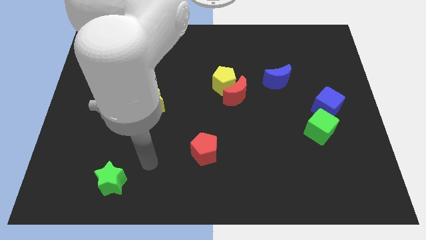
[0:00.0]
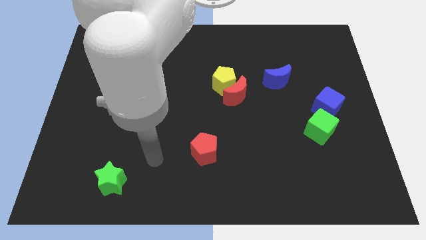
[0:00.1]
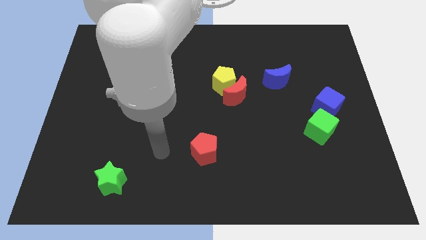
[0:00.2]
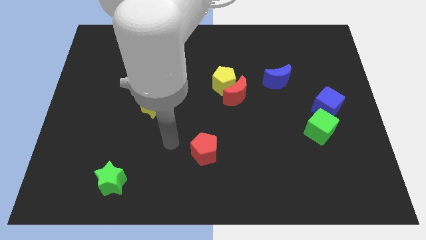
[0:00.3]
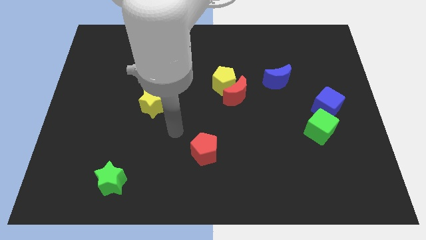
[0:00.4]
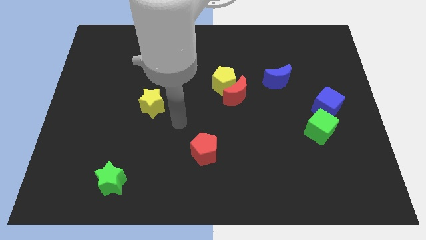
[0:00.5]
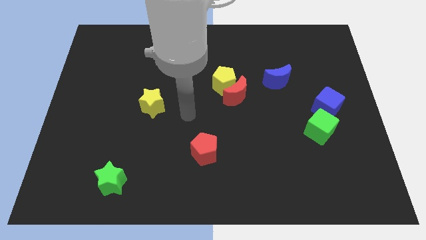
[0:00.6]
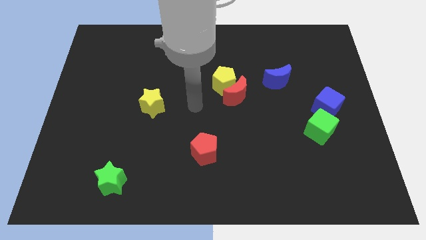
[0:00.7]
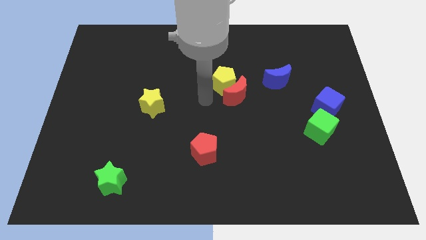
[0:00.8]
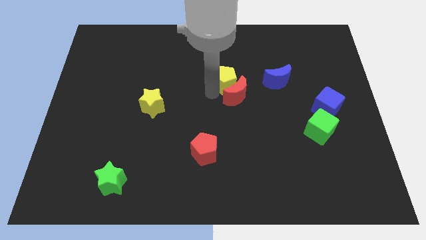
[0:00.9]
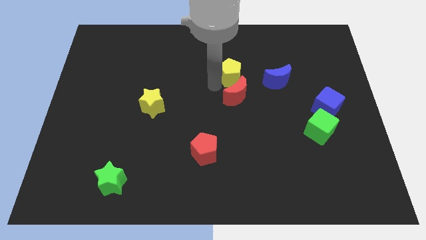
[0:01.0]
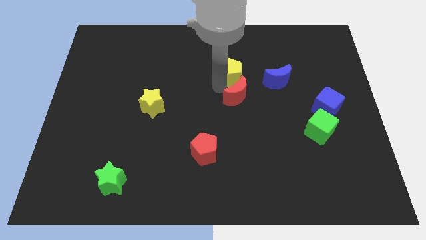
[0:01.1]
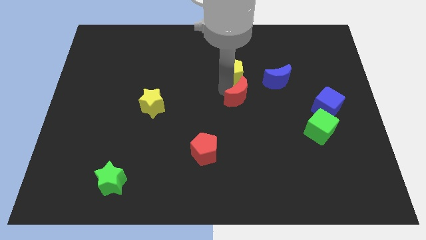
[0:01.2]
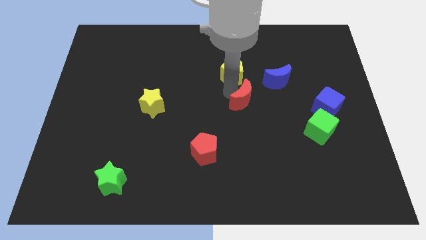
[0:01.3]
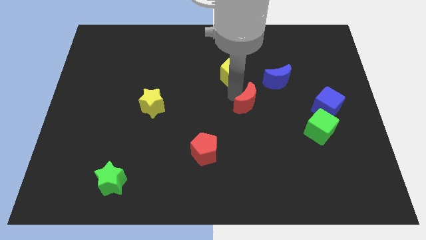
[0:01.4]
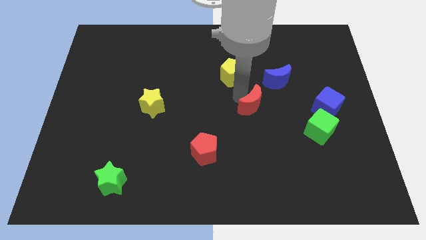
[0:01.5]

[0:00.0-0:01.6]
pull the red moon apart from the yellow pentagon

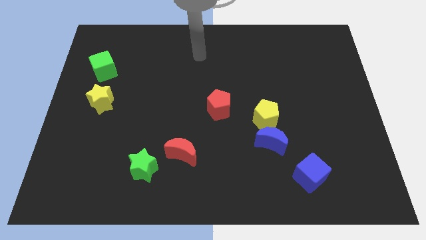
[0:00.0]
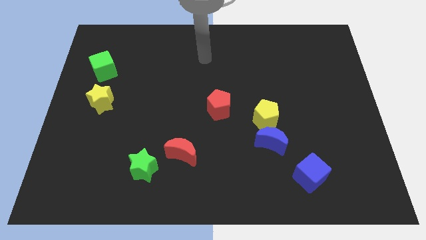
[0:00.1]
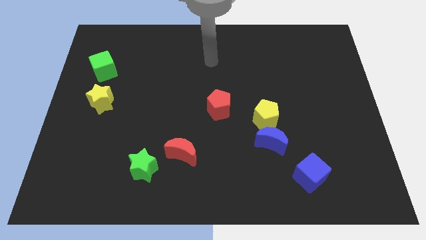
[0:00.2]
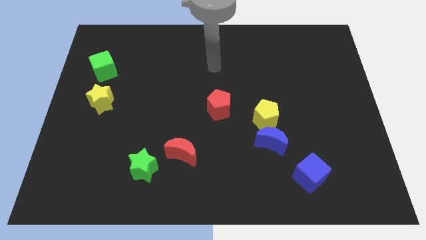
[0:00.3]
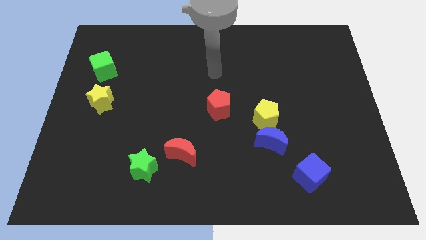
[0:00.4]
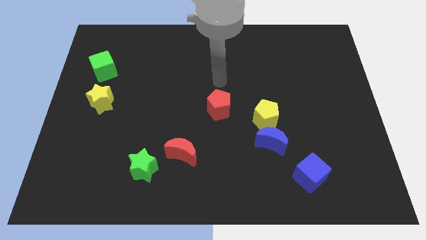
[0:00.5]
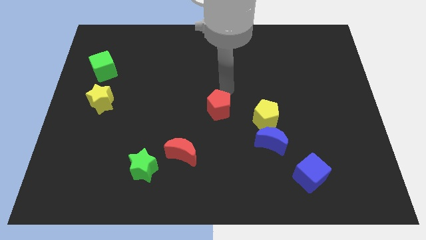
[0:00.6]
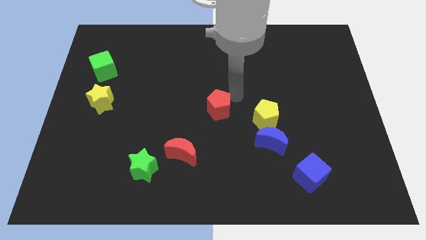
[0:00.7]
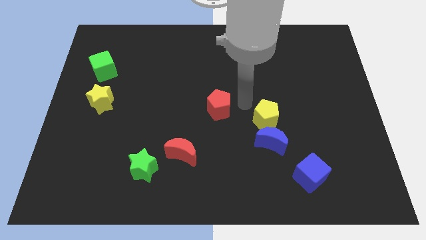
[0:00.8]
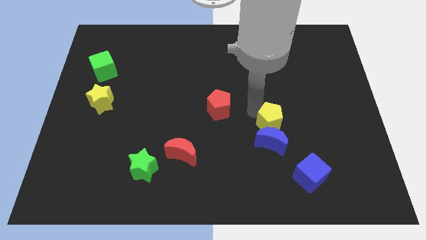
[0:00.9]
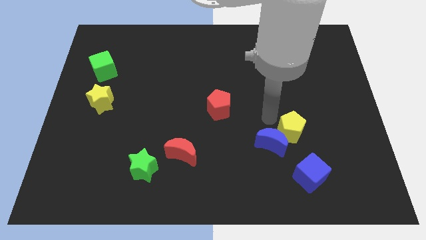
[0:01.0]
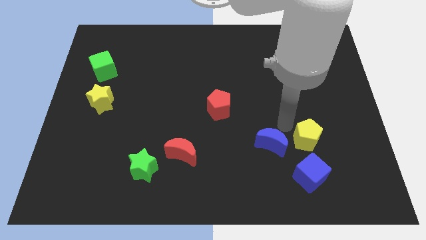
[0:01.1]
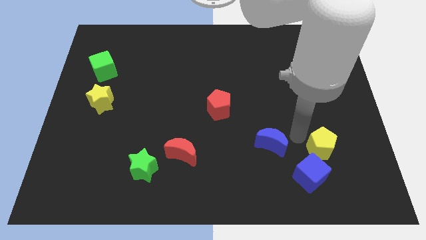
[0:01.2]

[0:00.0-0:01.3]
separate the blue moon from the yellow pentagon

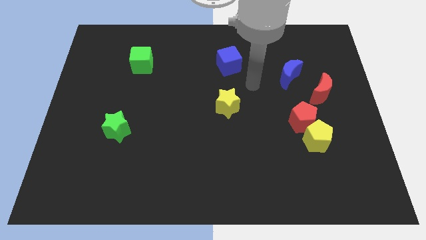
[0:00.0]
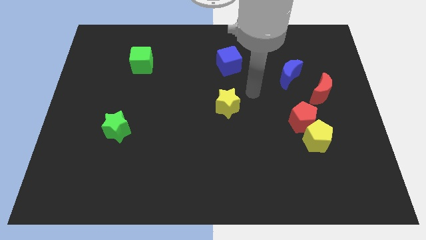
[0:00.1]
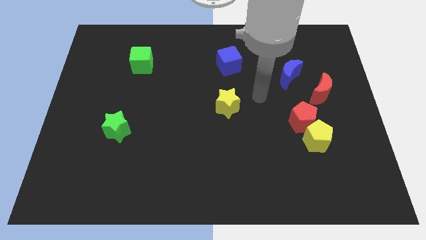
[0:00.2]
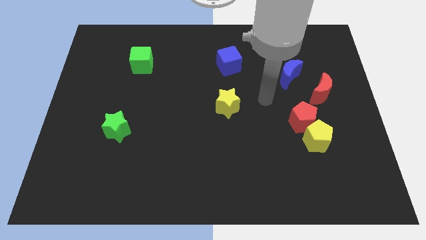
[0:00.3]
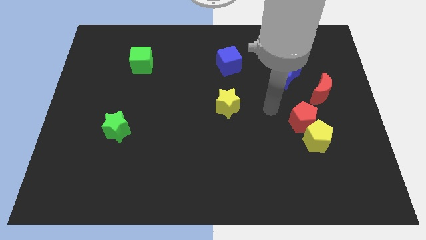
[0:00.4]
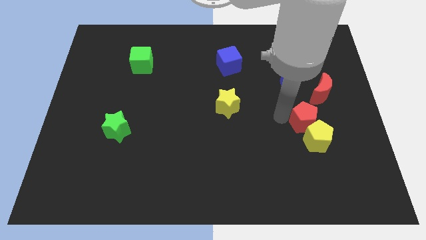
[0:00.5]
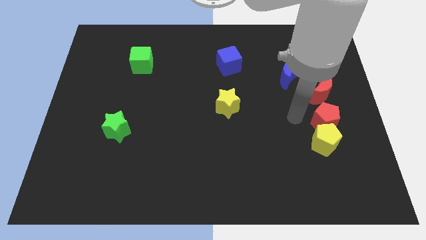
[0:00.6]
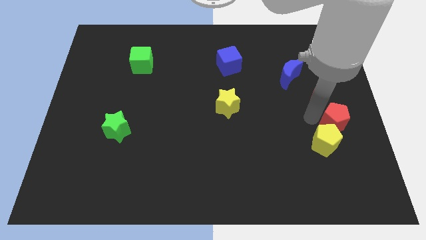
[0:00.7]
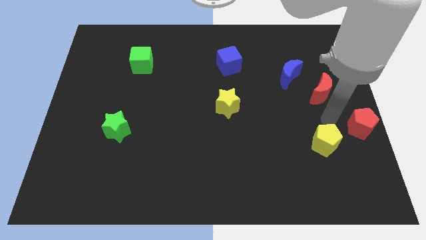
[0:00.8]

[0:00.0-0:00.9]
separate the yellow pentagon from the red pentagon

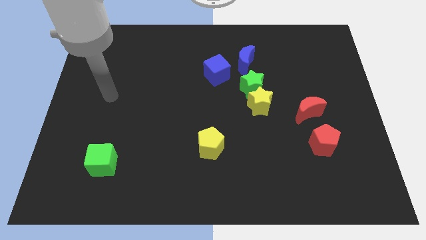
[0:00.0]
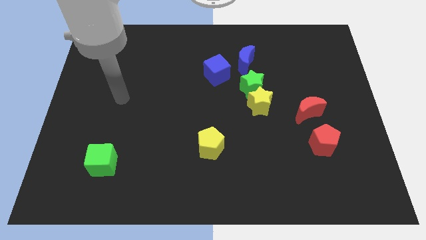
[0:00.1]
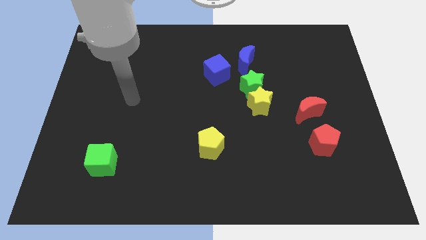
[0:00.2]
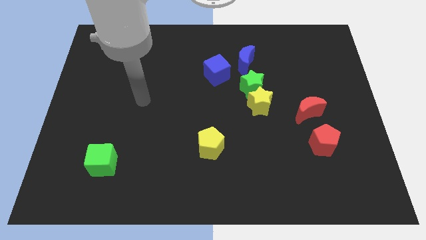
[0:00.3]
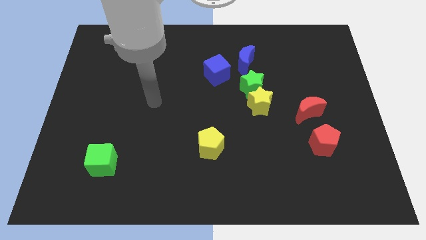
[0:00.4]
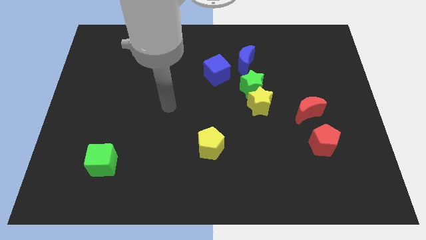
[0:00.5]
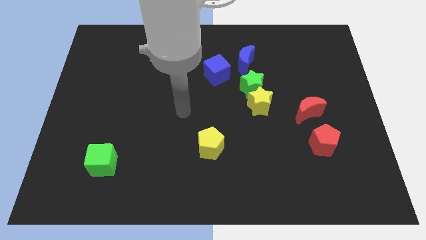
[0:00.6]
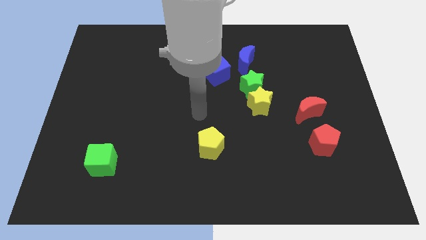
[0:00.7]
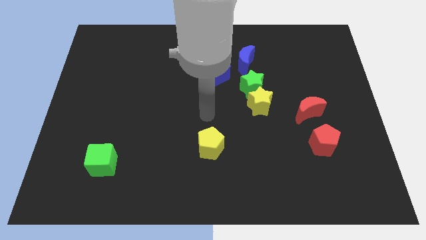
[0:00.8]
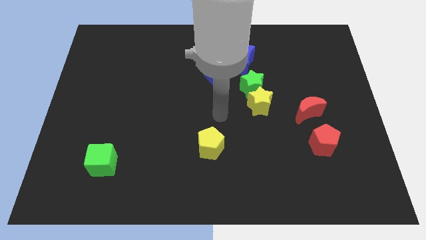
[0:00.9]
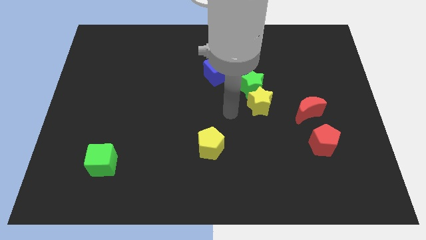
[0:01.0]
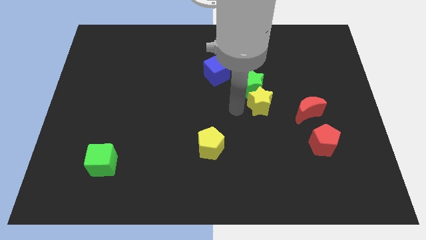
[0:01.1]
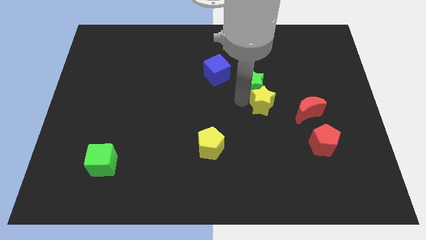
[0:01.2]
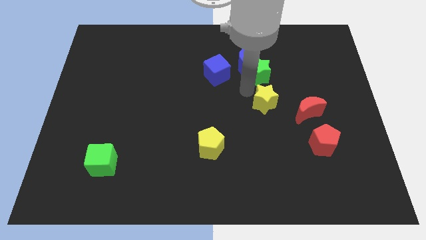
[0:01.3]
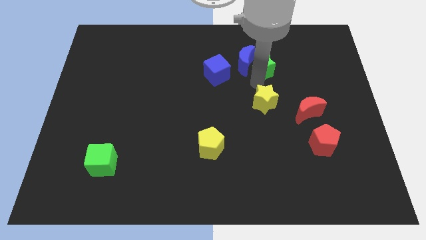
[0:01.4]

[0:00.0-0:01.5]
separate the yellow star from the green star

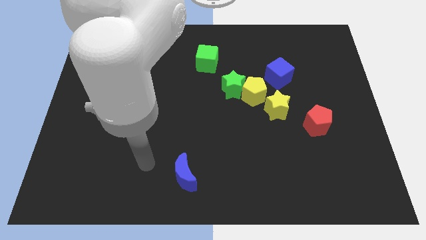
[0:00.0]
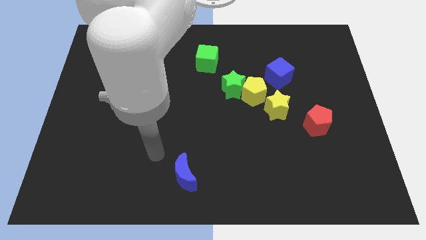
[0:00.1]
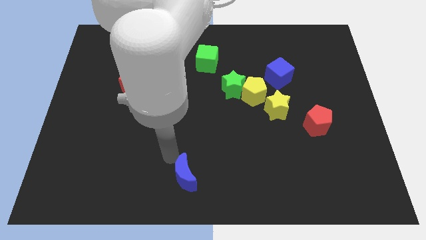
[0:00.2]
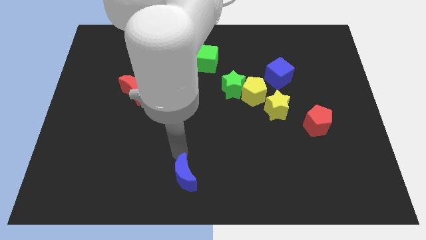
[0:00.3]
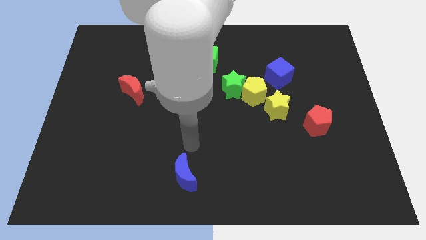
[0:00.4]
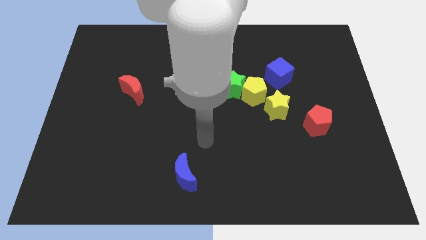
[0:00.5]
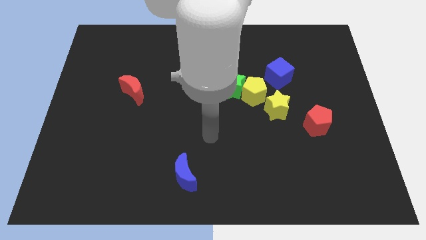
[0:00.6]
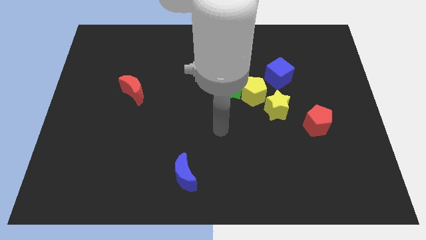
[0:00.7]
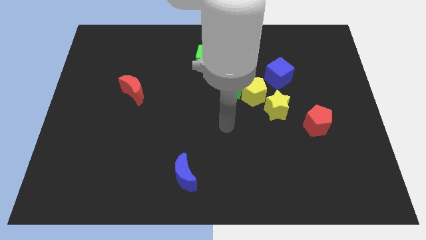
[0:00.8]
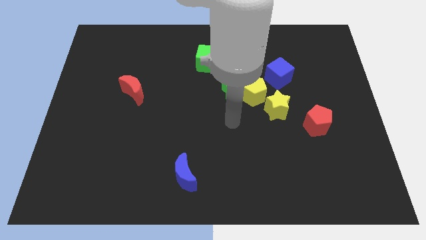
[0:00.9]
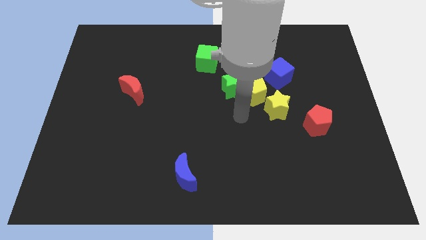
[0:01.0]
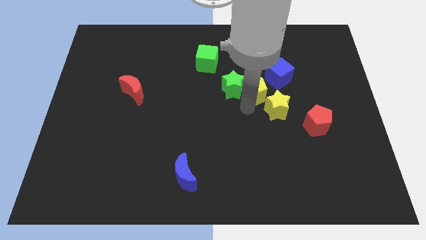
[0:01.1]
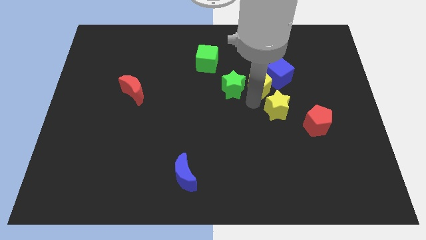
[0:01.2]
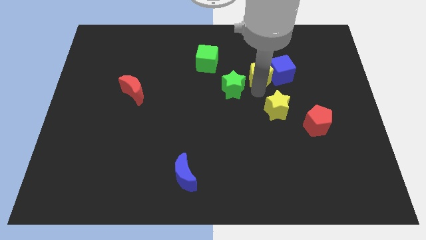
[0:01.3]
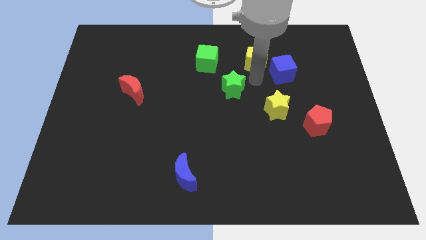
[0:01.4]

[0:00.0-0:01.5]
move the green star away from the yellow pentagon

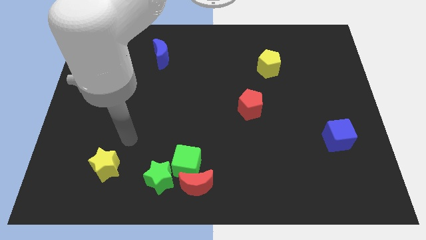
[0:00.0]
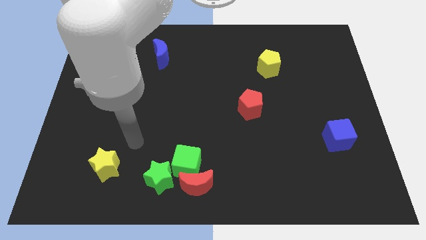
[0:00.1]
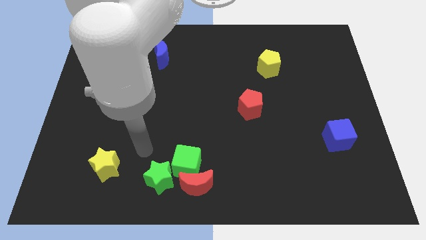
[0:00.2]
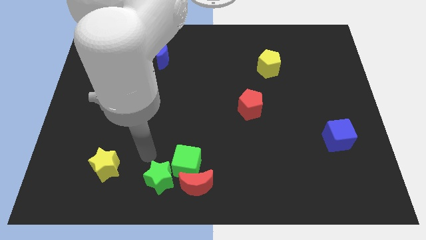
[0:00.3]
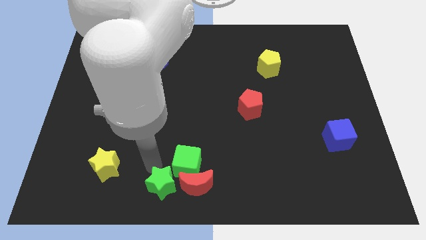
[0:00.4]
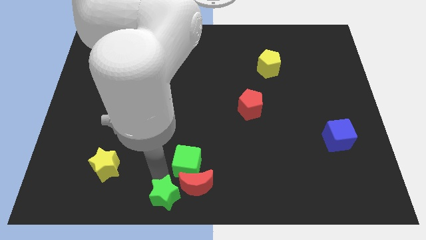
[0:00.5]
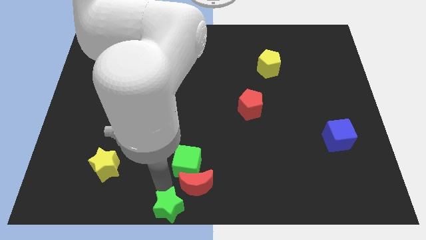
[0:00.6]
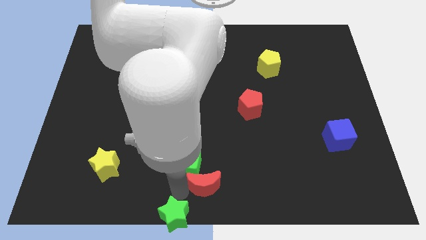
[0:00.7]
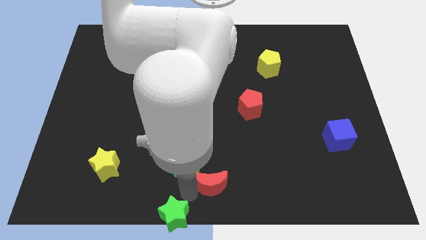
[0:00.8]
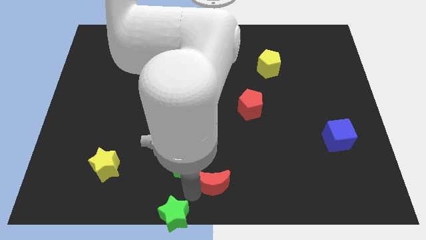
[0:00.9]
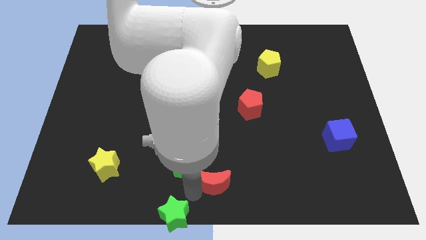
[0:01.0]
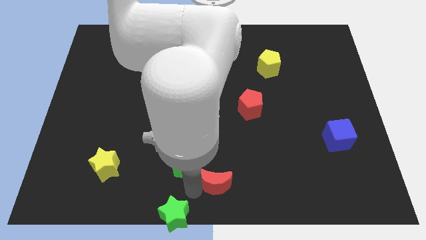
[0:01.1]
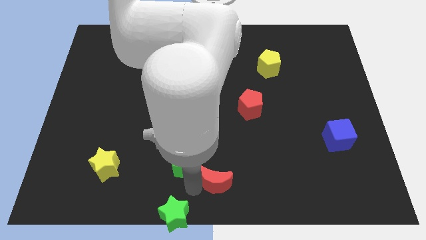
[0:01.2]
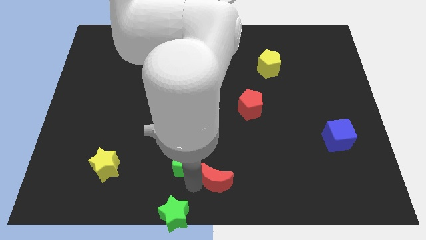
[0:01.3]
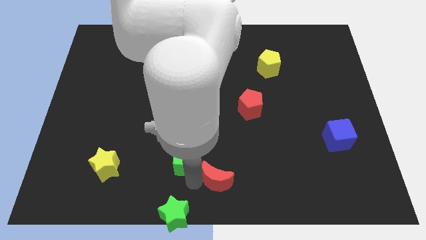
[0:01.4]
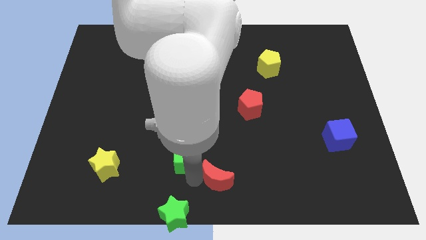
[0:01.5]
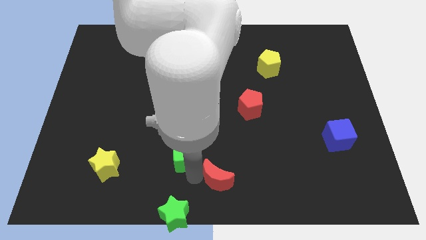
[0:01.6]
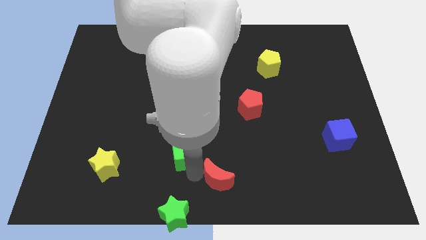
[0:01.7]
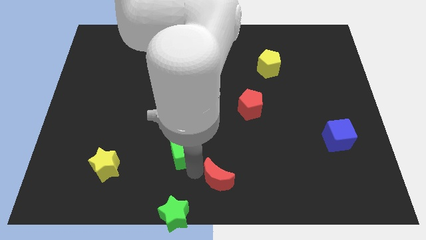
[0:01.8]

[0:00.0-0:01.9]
pull the green cube apart from the red moon and green star

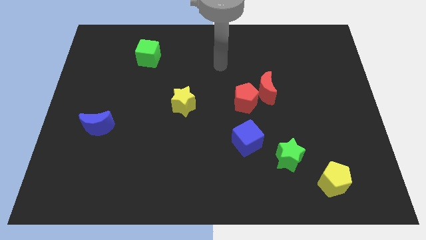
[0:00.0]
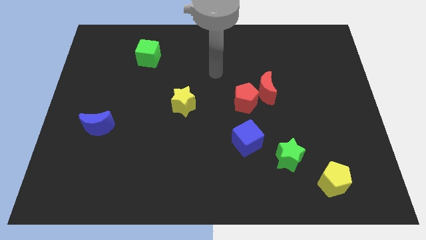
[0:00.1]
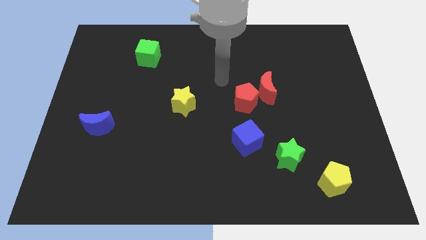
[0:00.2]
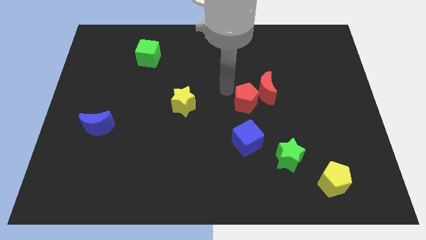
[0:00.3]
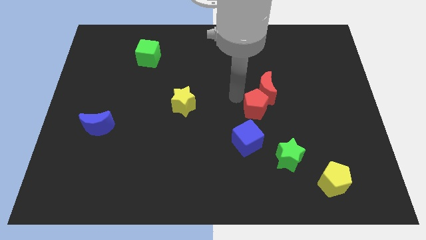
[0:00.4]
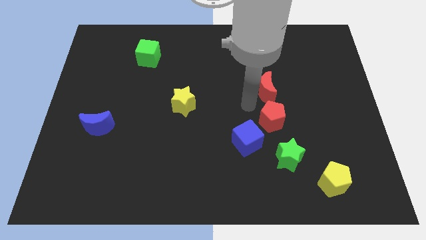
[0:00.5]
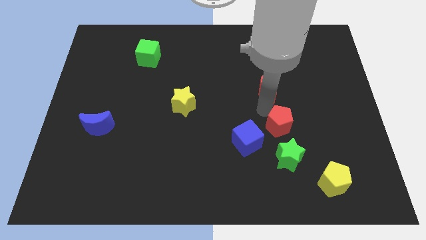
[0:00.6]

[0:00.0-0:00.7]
move the red moon away from the red pentagon
